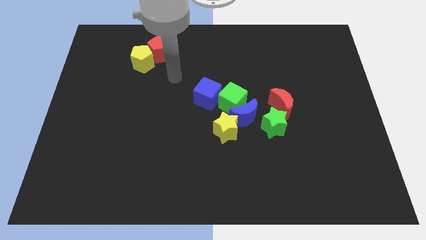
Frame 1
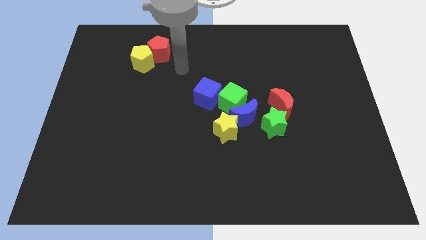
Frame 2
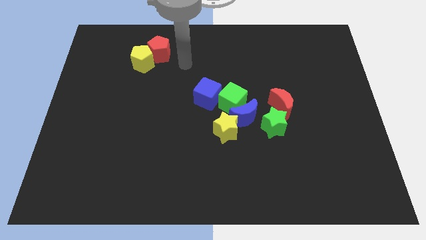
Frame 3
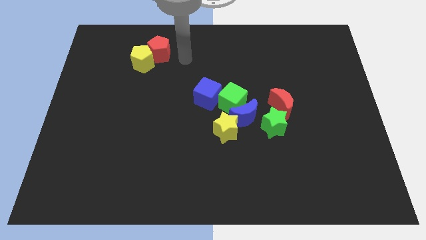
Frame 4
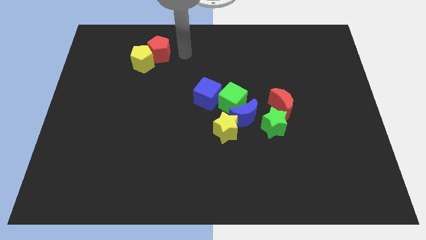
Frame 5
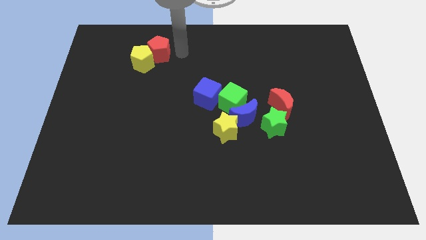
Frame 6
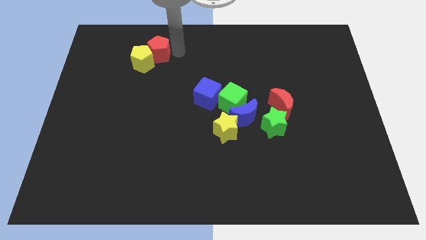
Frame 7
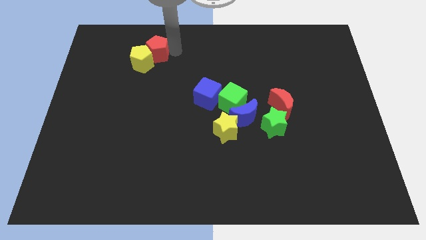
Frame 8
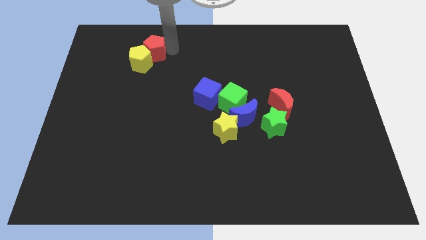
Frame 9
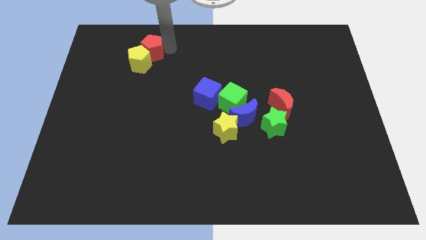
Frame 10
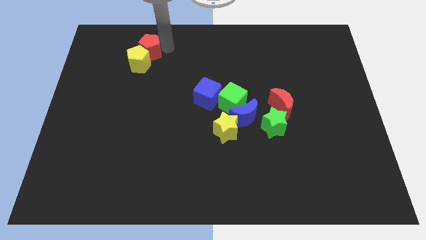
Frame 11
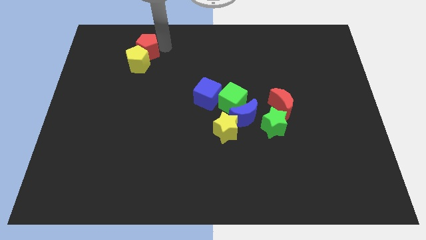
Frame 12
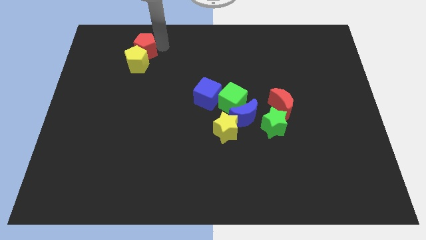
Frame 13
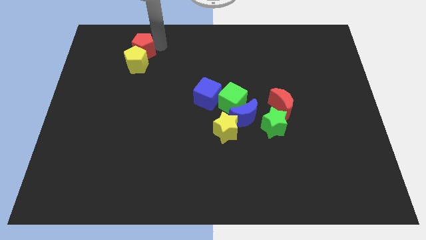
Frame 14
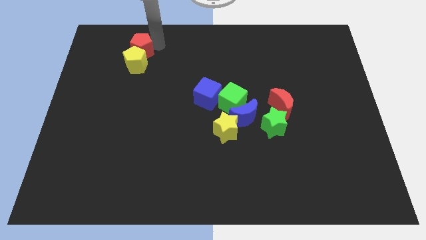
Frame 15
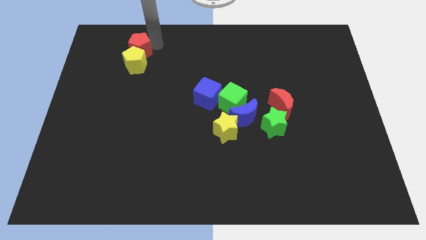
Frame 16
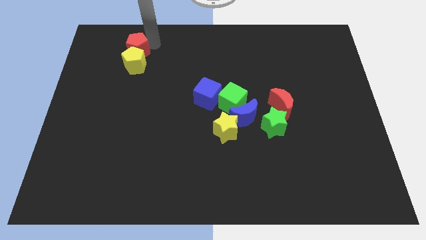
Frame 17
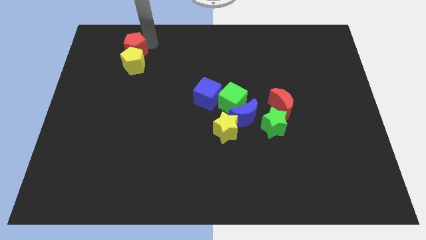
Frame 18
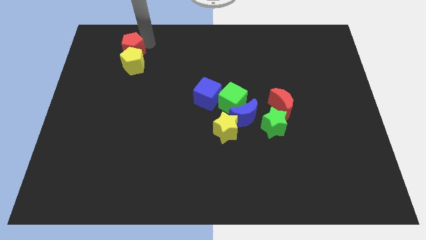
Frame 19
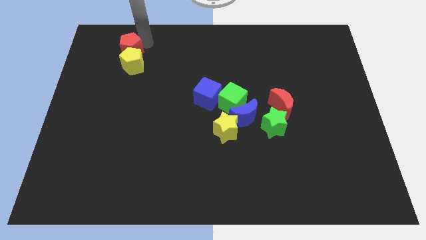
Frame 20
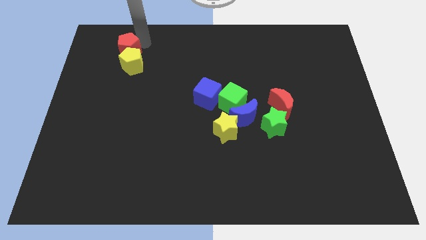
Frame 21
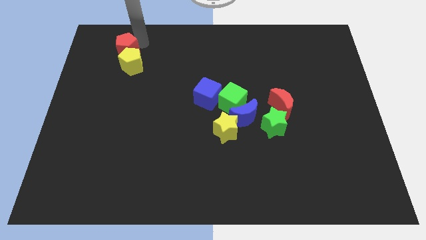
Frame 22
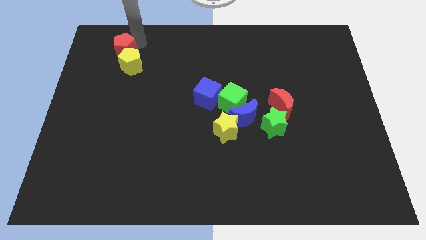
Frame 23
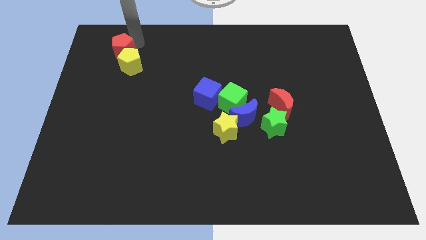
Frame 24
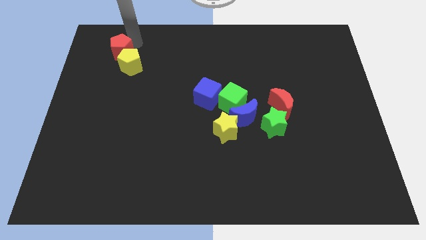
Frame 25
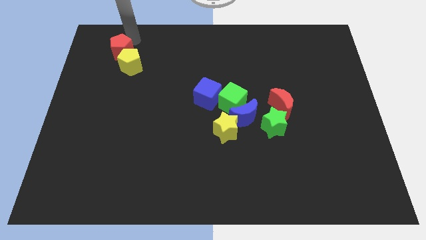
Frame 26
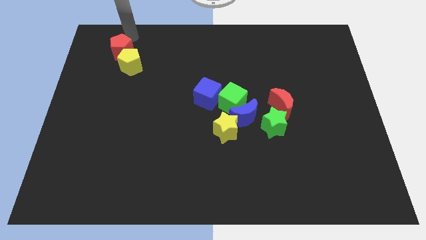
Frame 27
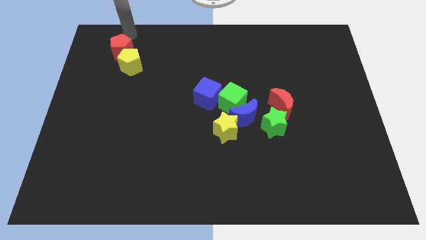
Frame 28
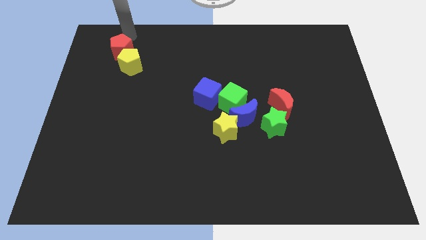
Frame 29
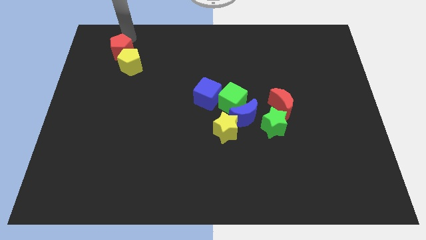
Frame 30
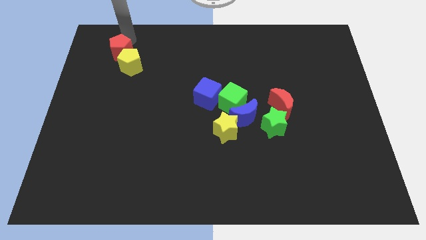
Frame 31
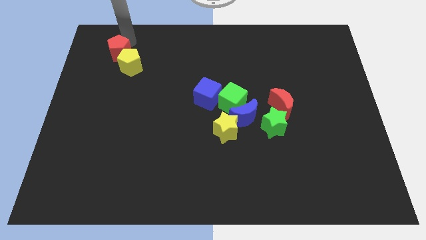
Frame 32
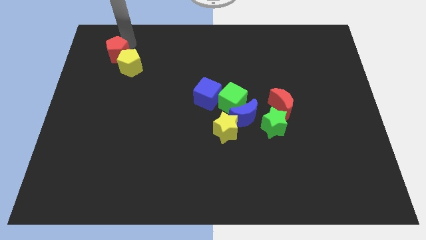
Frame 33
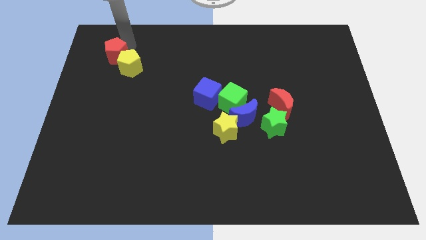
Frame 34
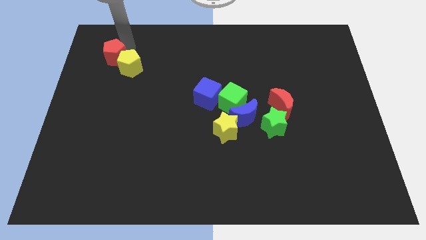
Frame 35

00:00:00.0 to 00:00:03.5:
slide the red pentagon slightly down and then to the left

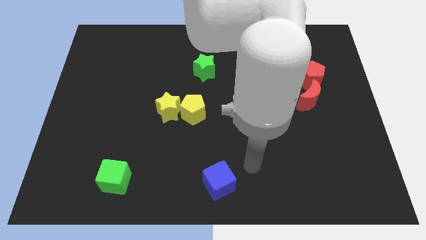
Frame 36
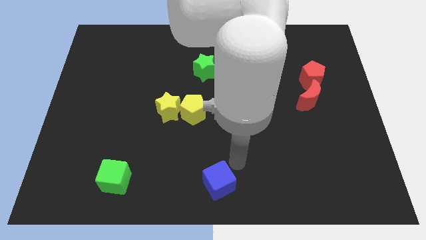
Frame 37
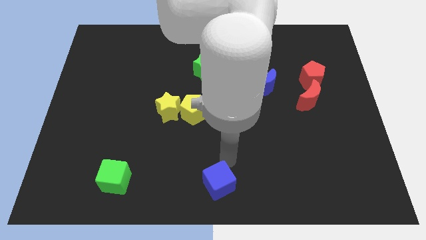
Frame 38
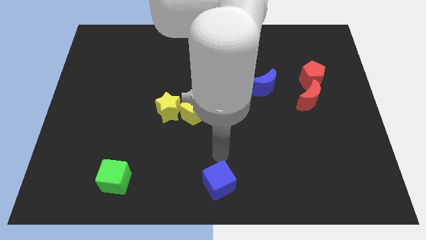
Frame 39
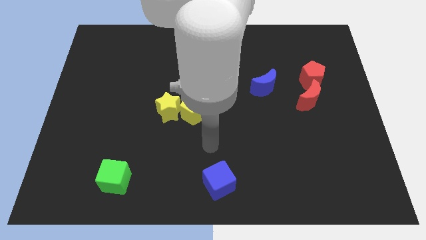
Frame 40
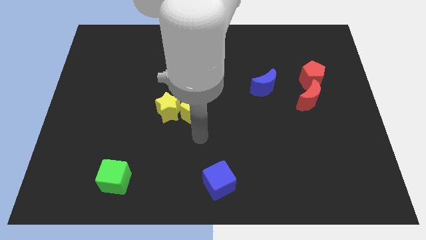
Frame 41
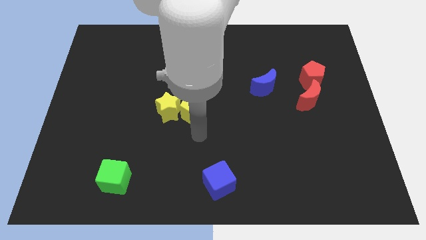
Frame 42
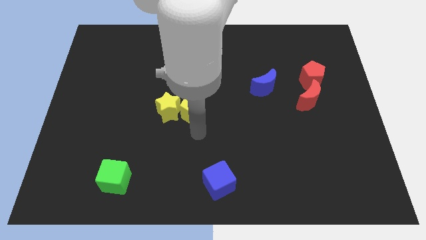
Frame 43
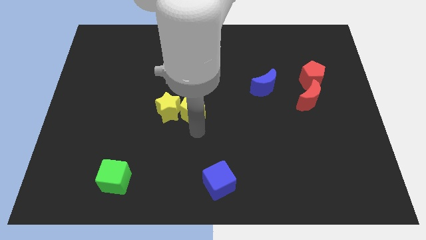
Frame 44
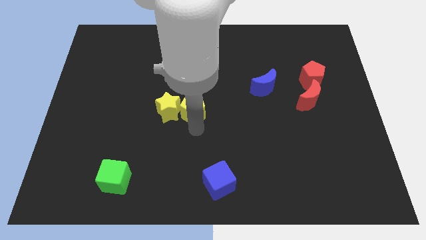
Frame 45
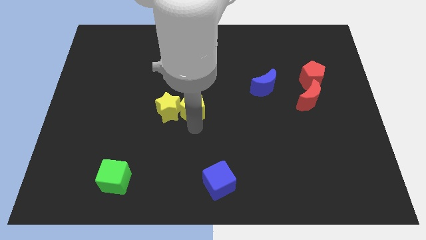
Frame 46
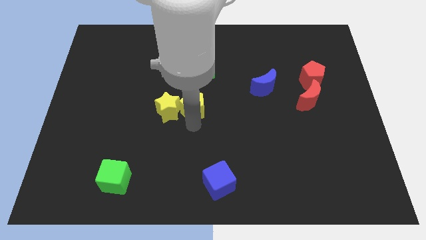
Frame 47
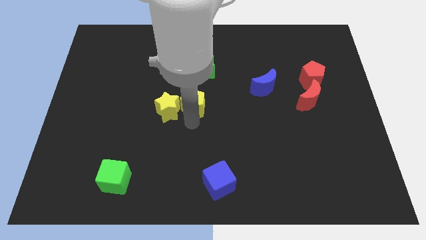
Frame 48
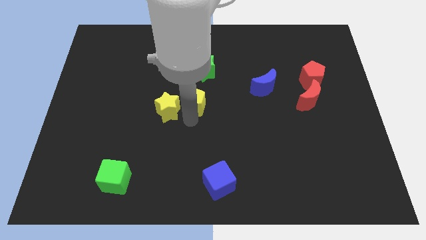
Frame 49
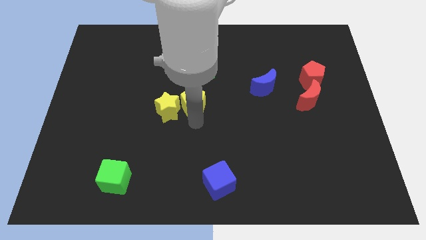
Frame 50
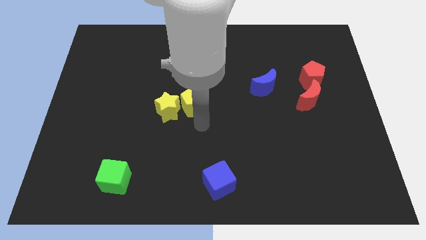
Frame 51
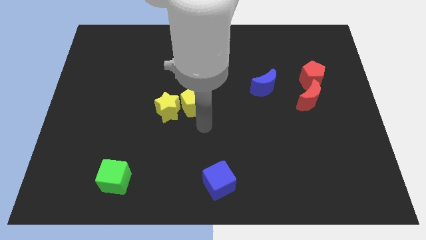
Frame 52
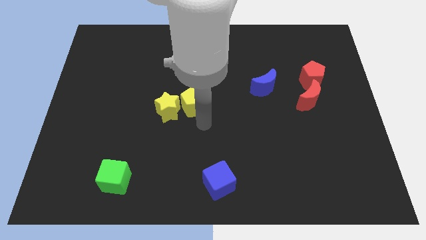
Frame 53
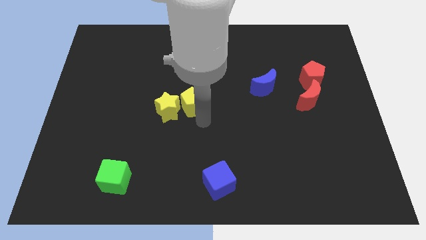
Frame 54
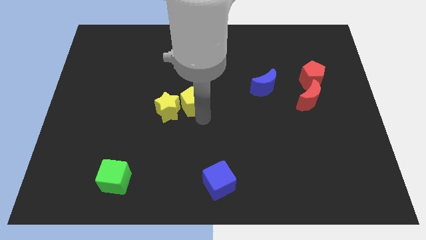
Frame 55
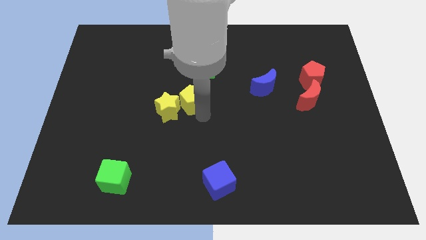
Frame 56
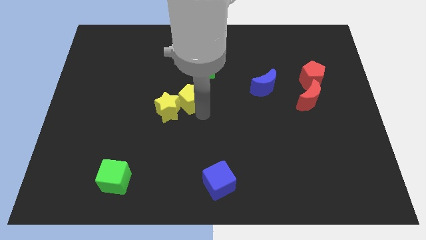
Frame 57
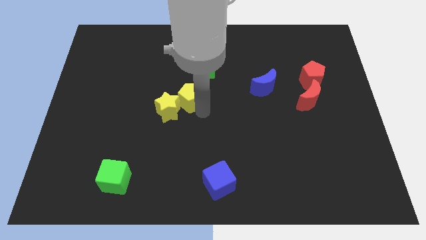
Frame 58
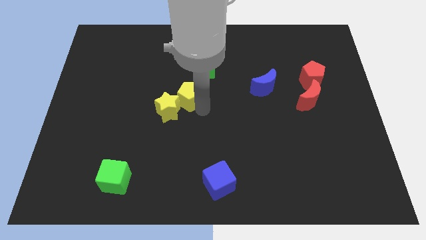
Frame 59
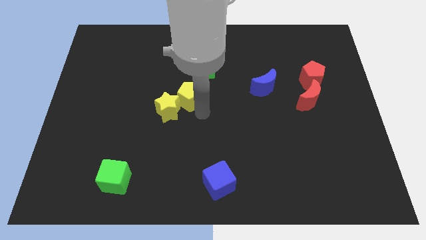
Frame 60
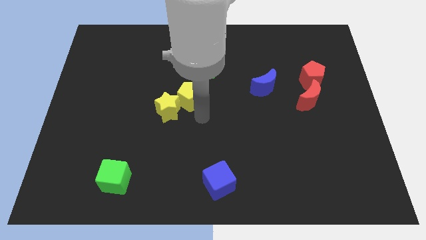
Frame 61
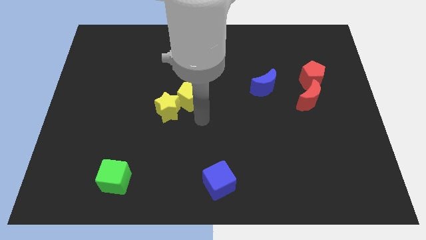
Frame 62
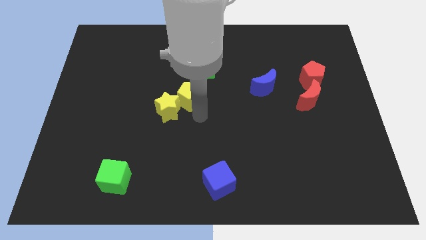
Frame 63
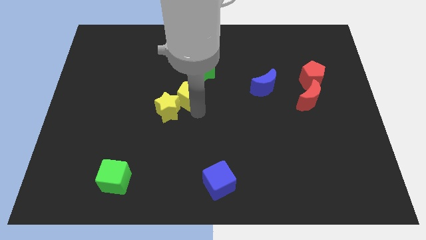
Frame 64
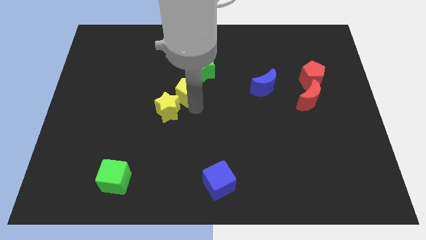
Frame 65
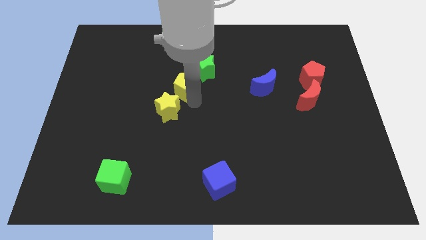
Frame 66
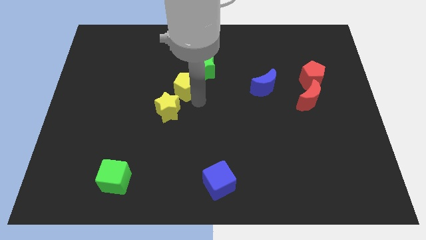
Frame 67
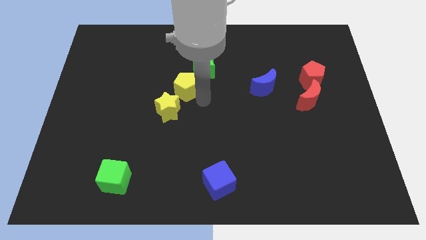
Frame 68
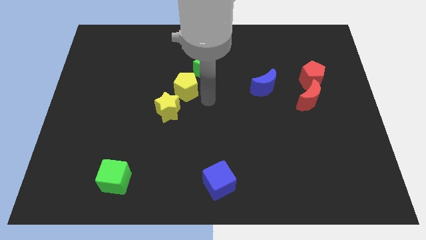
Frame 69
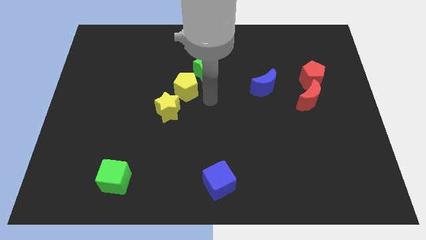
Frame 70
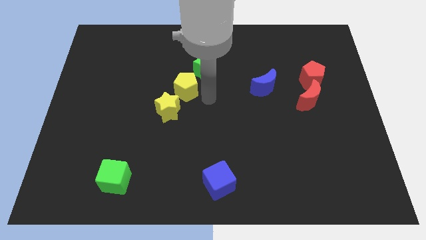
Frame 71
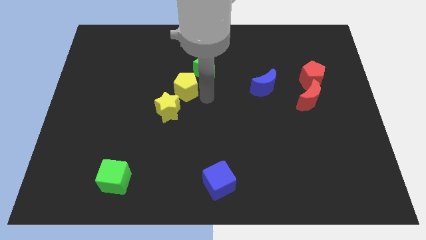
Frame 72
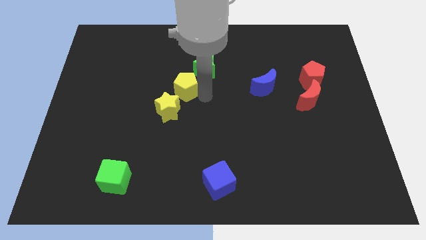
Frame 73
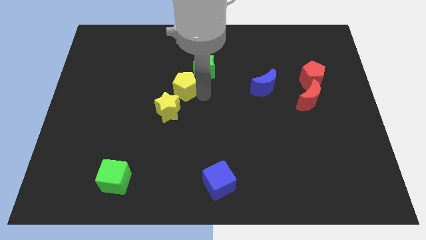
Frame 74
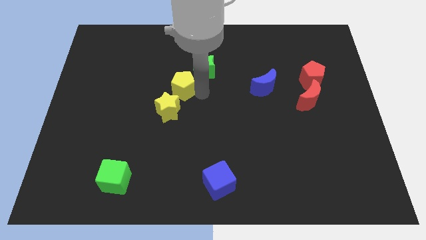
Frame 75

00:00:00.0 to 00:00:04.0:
slide the yellow pentagon slightly upwards and left diagonally

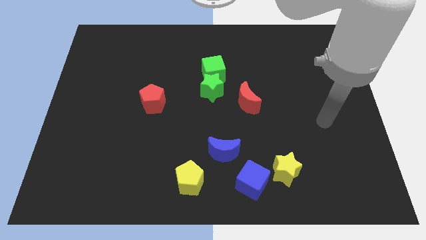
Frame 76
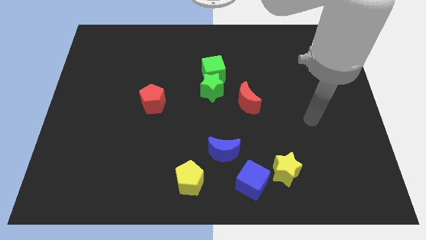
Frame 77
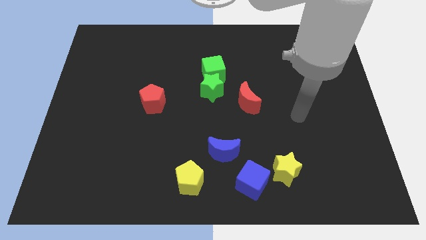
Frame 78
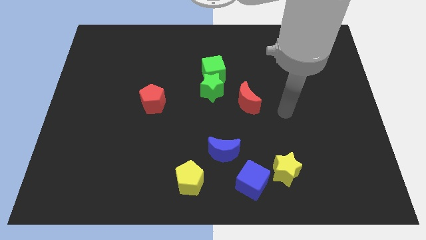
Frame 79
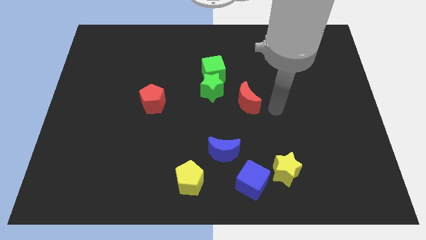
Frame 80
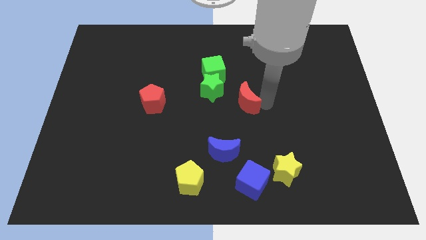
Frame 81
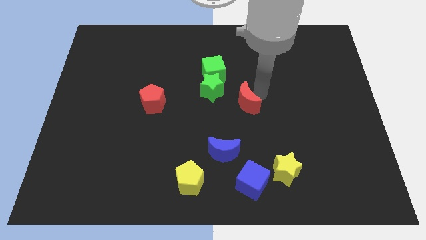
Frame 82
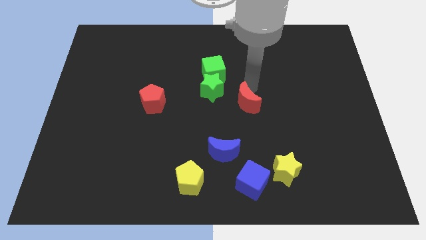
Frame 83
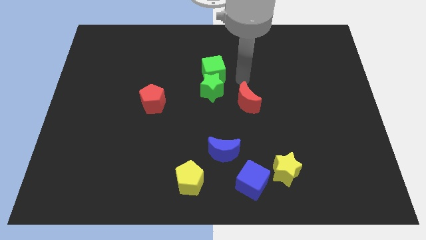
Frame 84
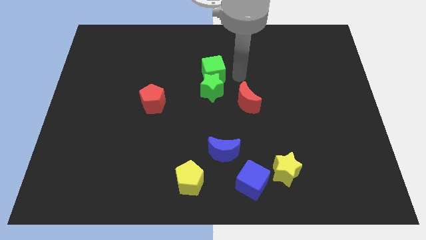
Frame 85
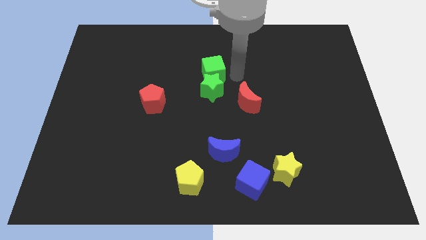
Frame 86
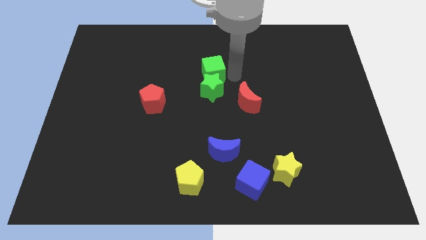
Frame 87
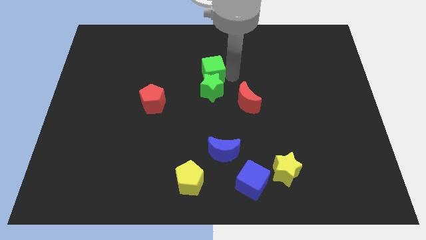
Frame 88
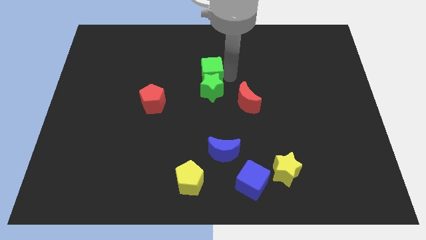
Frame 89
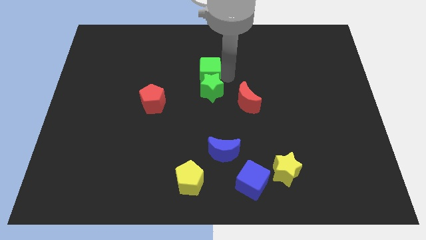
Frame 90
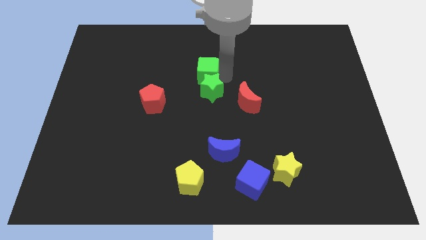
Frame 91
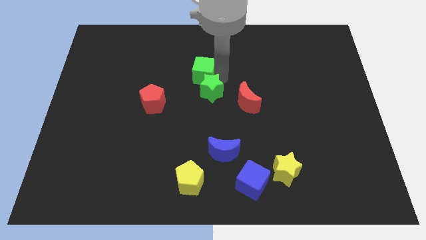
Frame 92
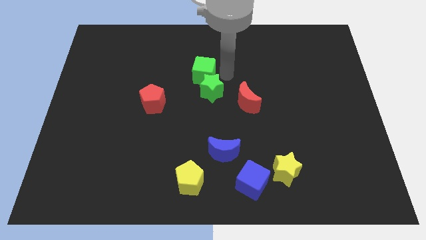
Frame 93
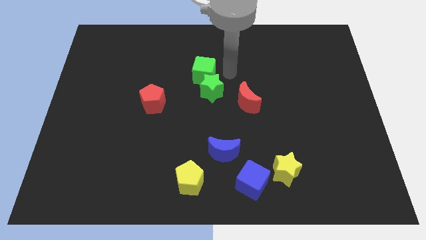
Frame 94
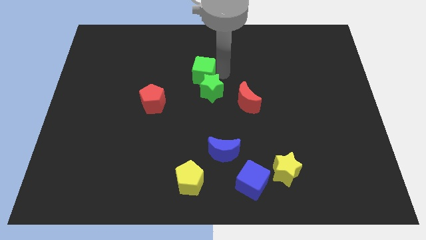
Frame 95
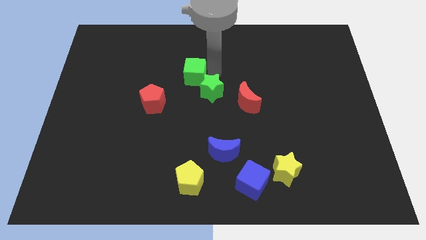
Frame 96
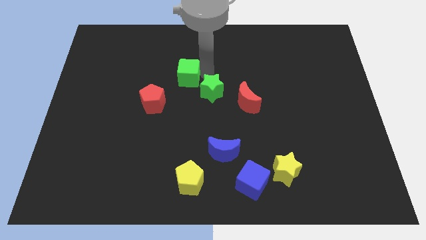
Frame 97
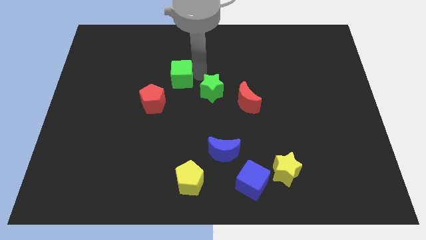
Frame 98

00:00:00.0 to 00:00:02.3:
slide the green cube somewhat left
